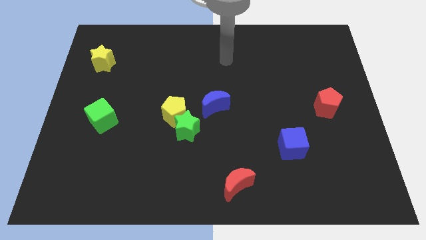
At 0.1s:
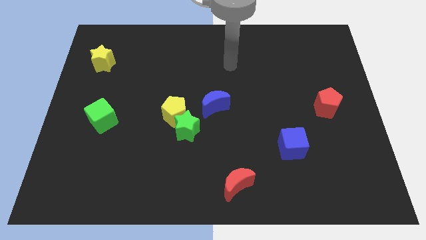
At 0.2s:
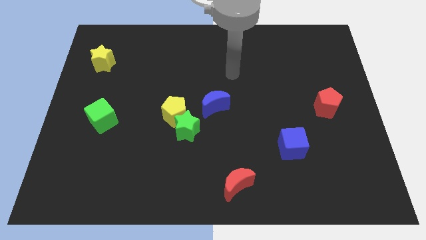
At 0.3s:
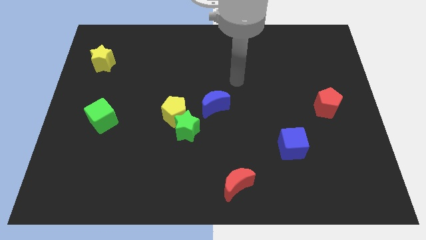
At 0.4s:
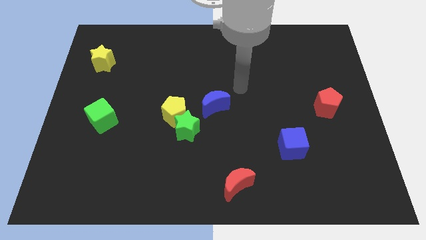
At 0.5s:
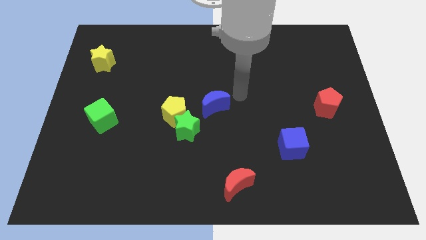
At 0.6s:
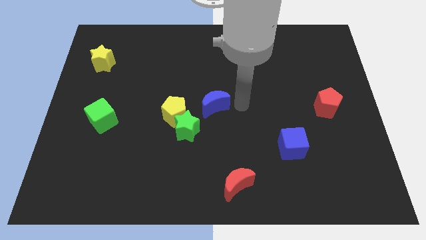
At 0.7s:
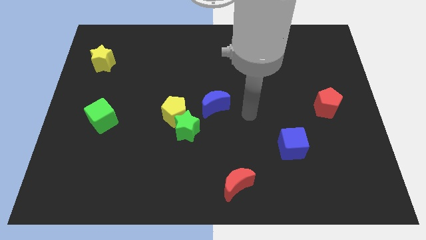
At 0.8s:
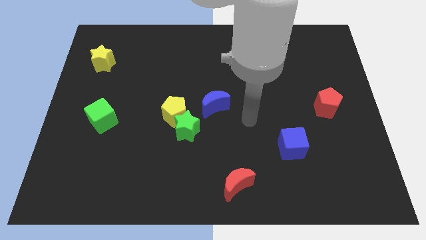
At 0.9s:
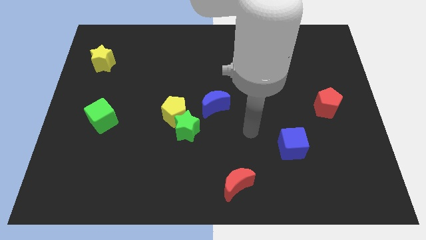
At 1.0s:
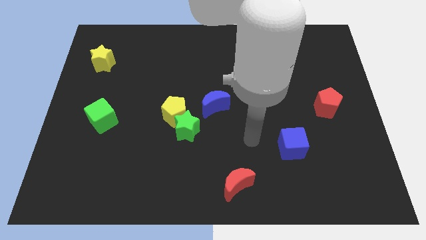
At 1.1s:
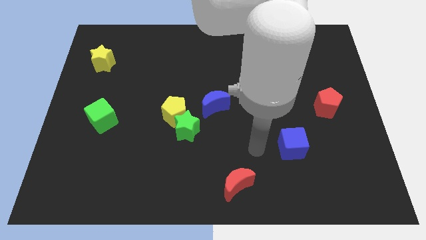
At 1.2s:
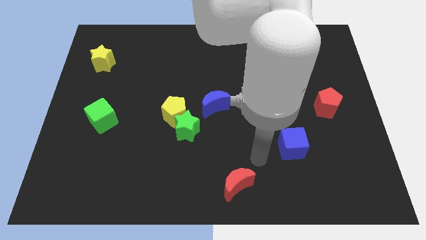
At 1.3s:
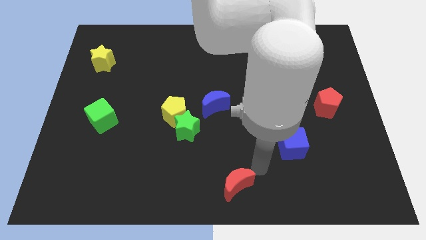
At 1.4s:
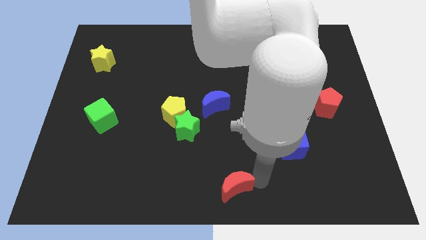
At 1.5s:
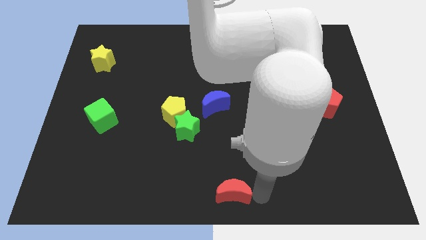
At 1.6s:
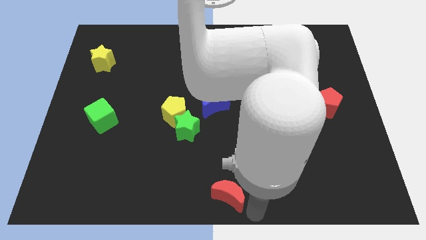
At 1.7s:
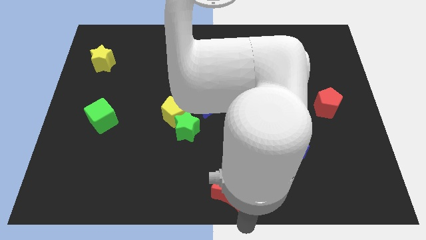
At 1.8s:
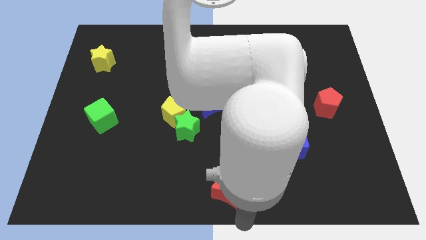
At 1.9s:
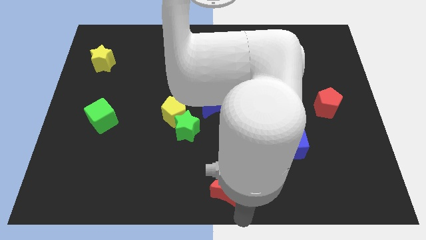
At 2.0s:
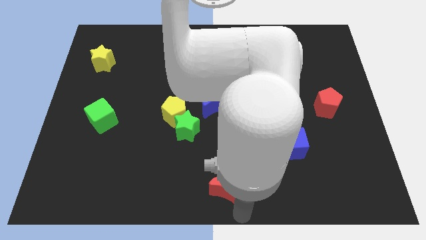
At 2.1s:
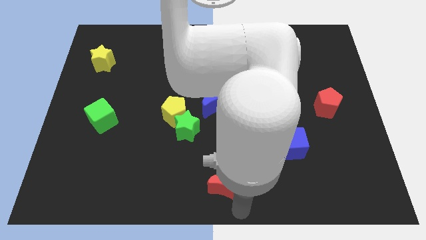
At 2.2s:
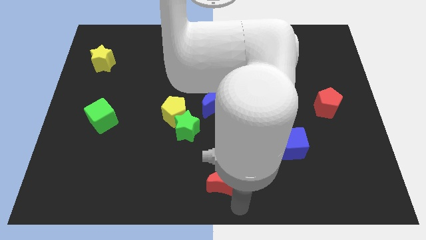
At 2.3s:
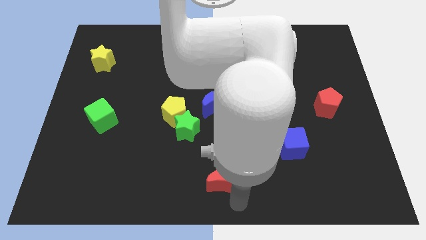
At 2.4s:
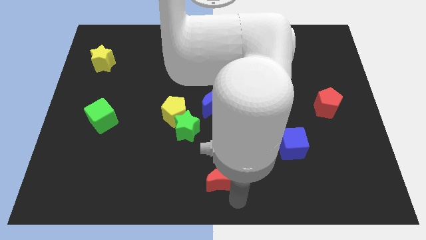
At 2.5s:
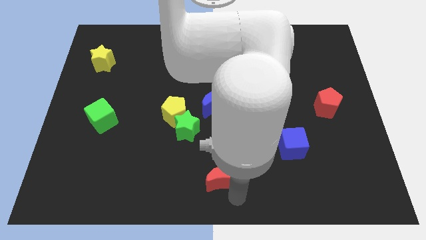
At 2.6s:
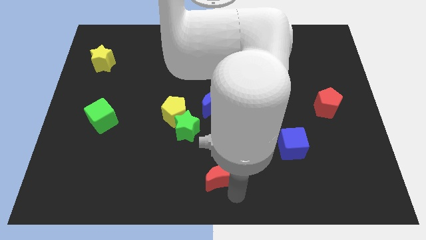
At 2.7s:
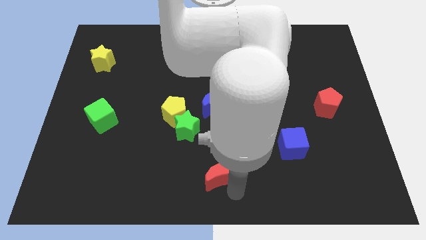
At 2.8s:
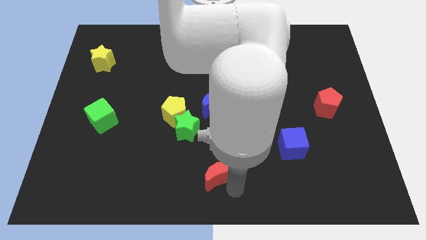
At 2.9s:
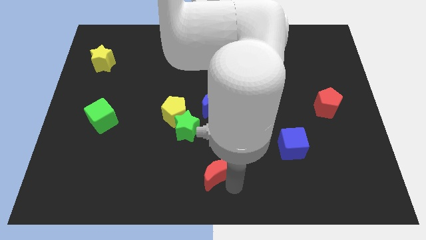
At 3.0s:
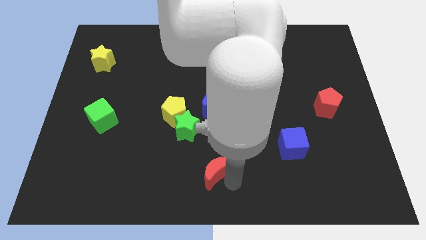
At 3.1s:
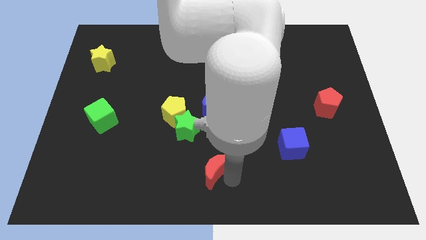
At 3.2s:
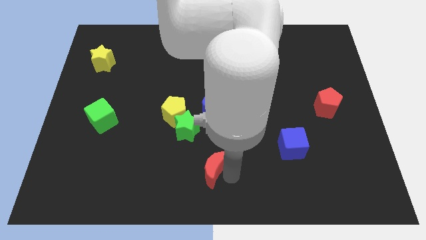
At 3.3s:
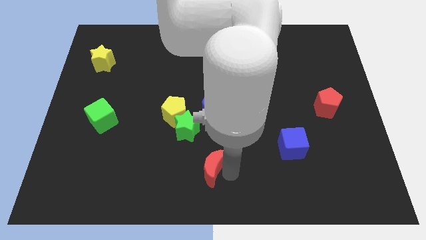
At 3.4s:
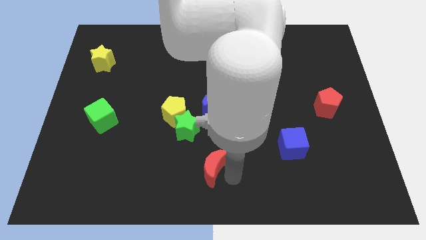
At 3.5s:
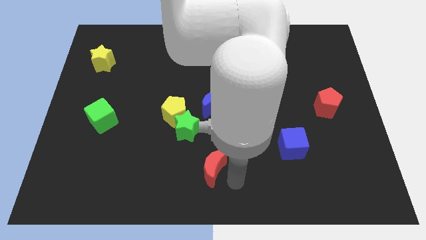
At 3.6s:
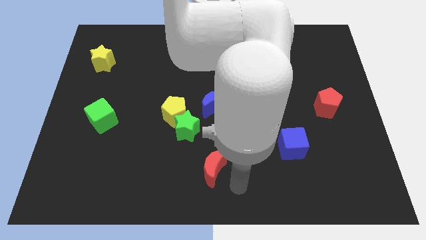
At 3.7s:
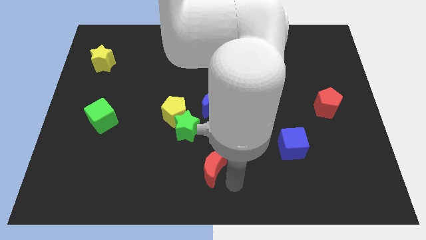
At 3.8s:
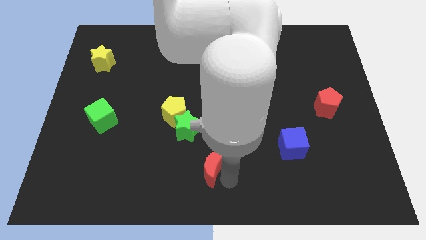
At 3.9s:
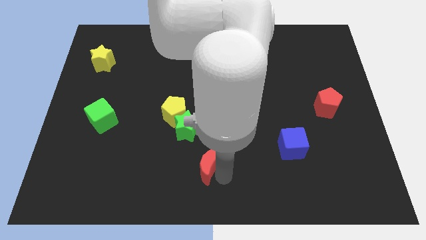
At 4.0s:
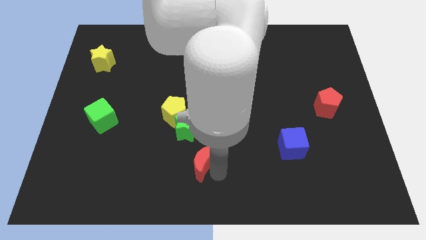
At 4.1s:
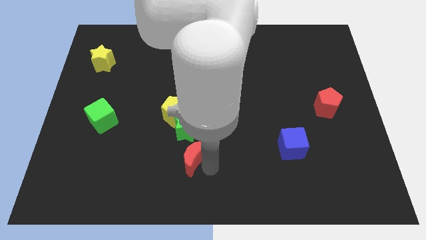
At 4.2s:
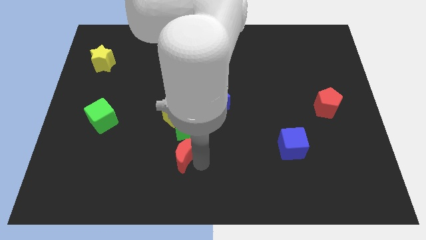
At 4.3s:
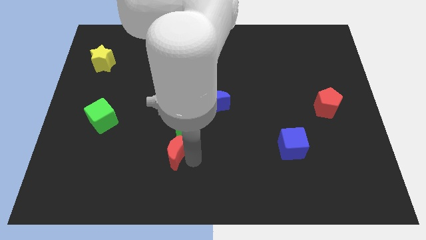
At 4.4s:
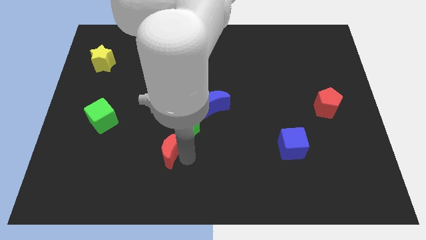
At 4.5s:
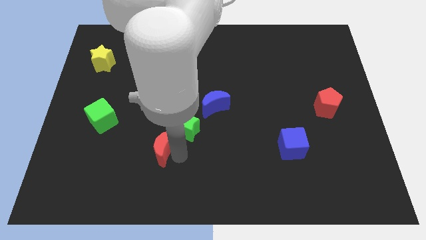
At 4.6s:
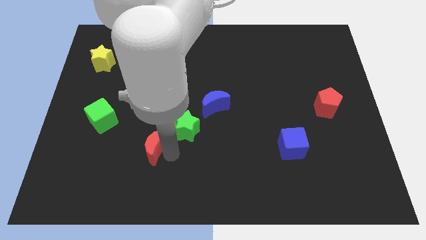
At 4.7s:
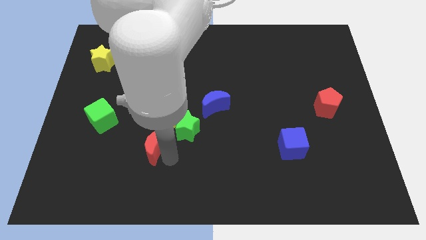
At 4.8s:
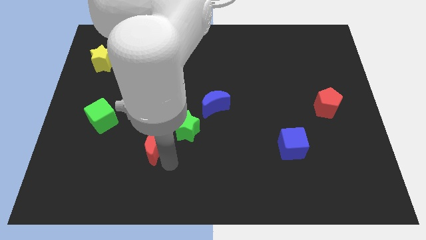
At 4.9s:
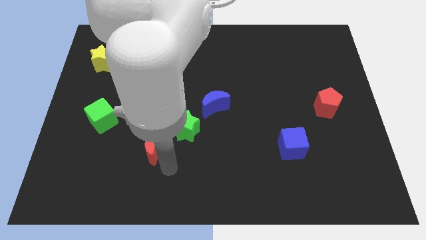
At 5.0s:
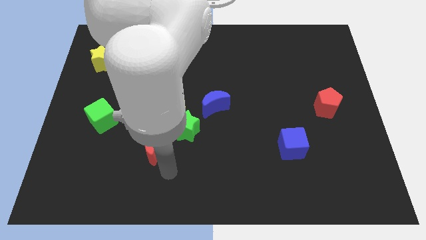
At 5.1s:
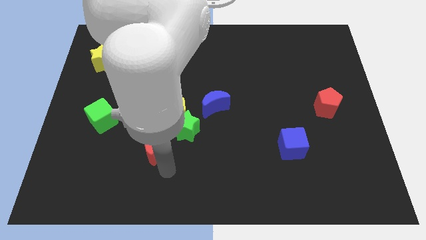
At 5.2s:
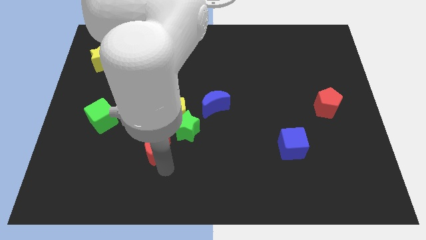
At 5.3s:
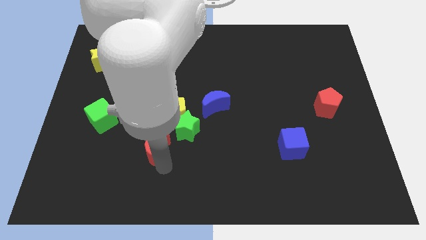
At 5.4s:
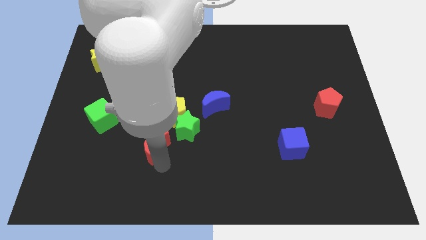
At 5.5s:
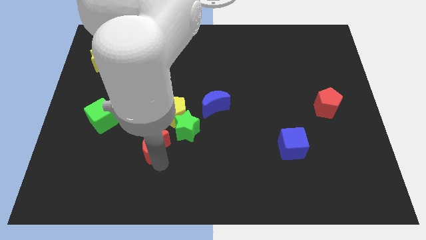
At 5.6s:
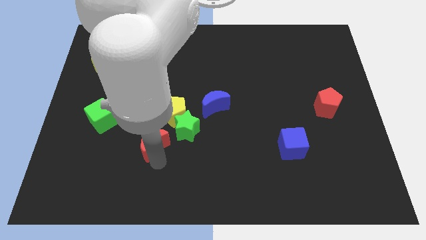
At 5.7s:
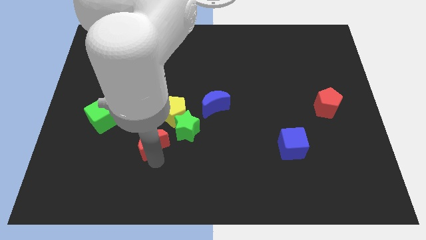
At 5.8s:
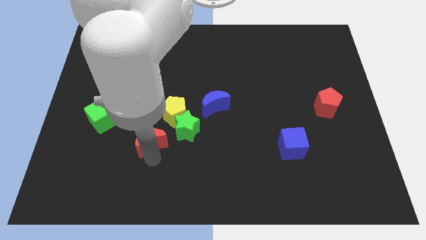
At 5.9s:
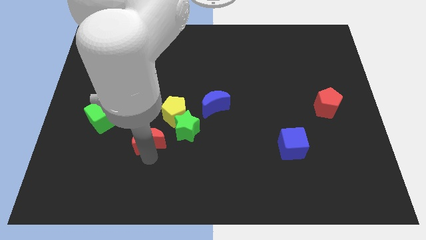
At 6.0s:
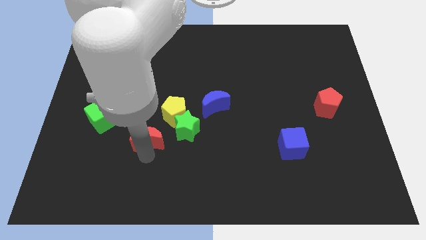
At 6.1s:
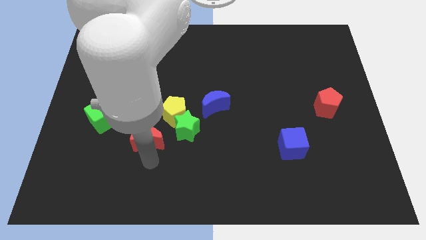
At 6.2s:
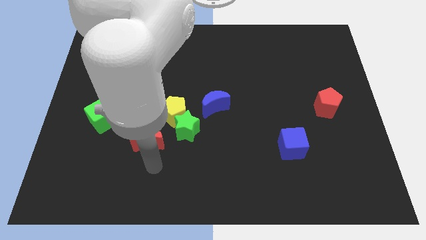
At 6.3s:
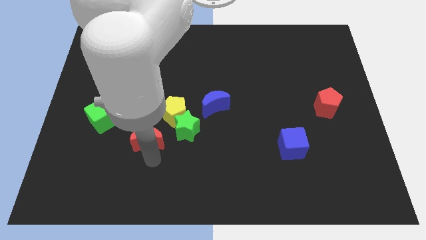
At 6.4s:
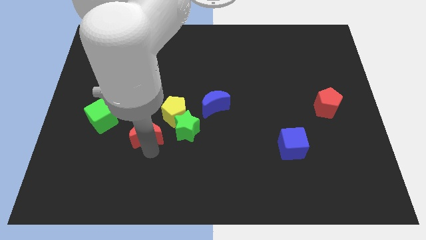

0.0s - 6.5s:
push the red moon upwards and to the left

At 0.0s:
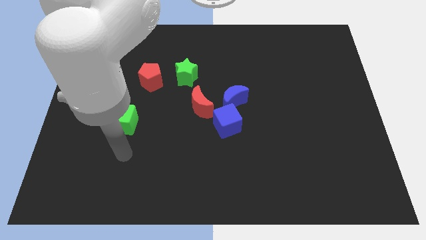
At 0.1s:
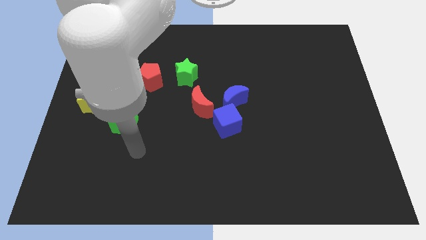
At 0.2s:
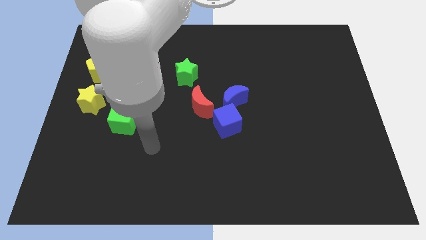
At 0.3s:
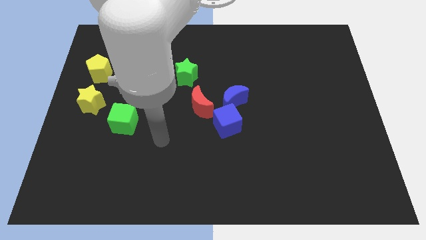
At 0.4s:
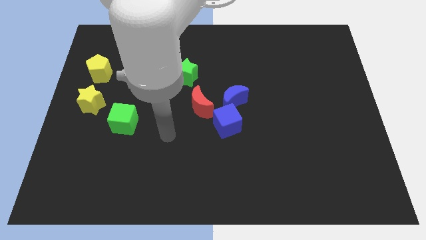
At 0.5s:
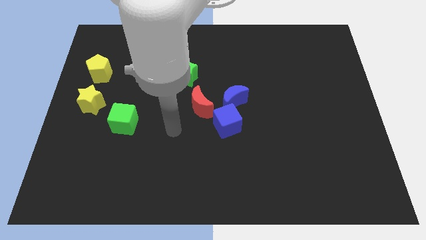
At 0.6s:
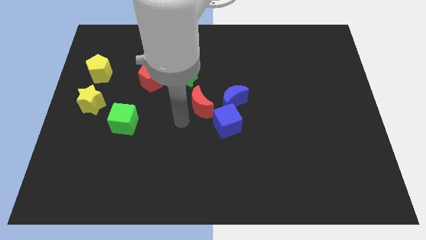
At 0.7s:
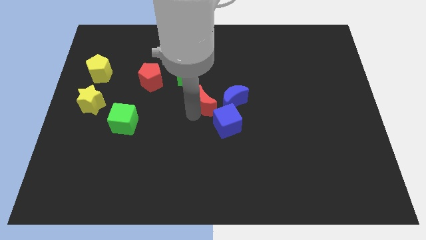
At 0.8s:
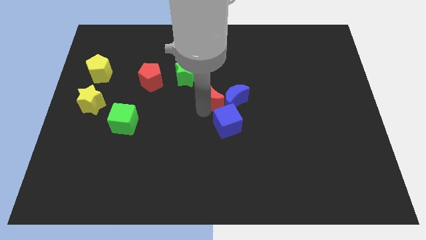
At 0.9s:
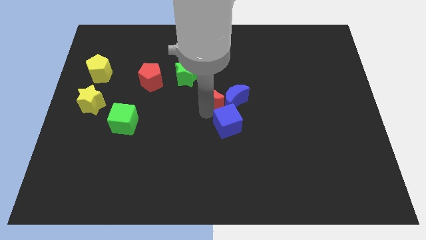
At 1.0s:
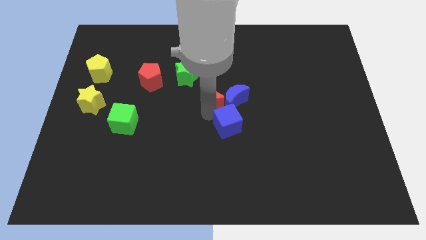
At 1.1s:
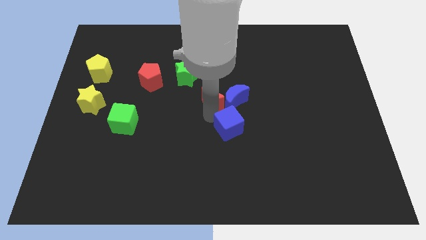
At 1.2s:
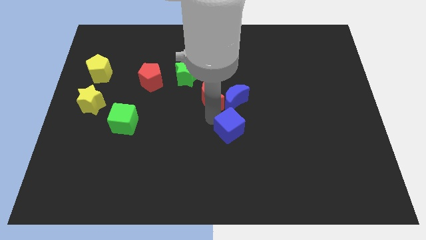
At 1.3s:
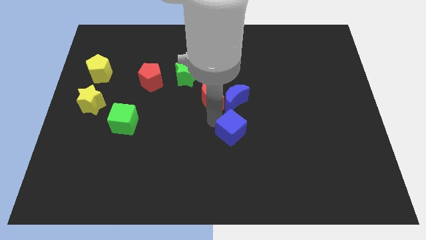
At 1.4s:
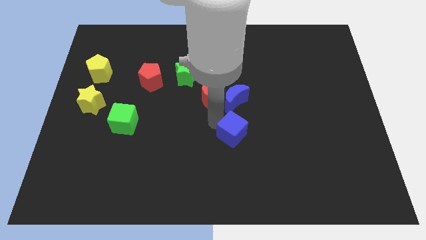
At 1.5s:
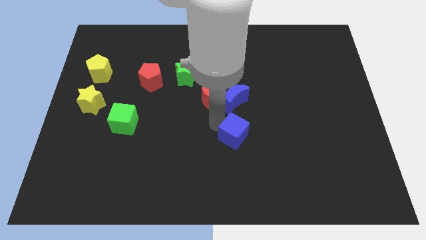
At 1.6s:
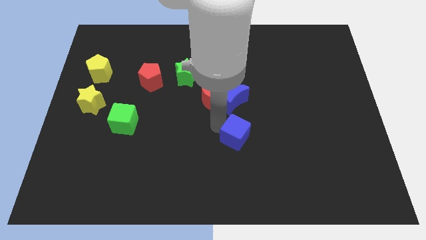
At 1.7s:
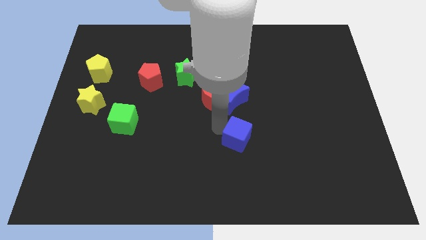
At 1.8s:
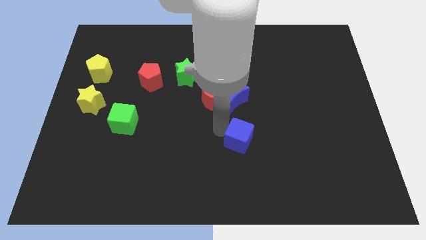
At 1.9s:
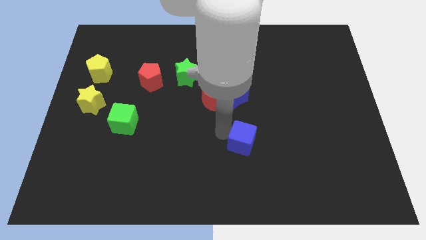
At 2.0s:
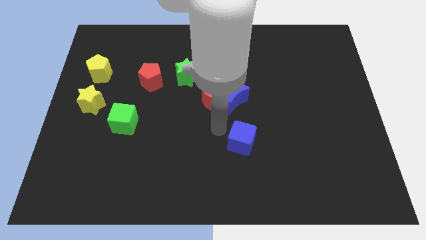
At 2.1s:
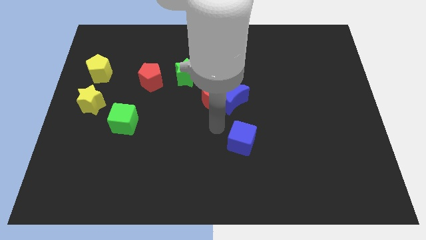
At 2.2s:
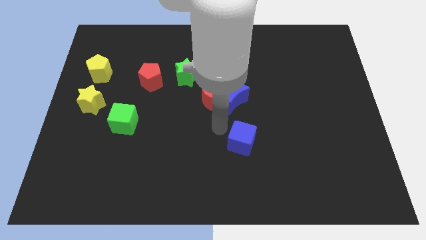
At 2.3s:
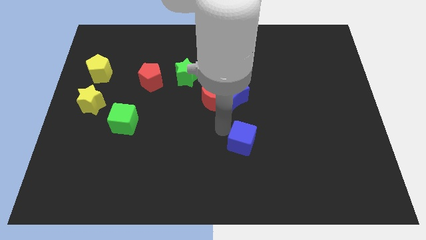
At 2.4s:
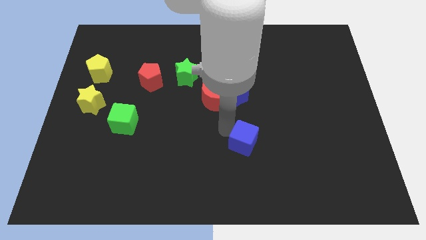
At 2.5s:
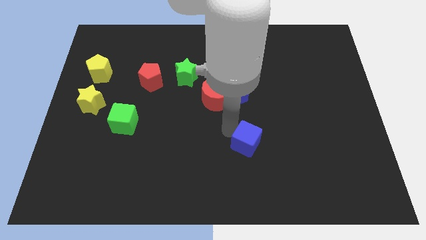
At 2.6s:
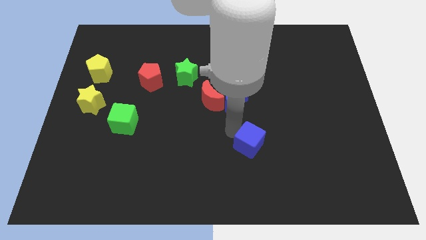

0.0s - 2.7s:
move the blue cube diagonally downwards and right somewhat
